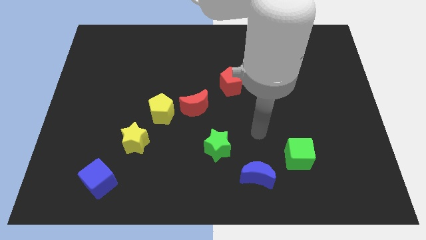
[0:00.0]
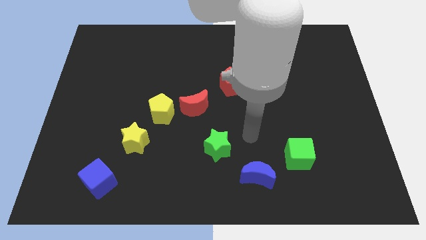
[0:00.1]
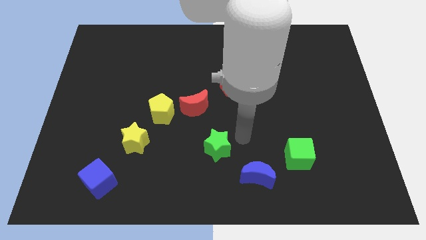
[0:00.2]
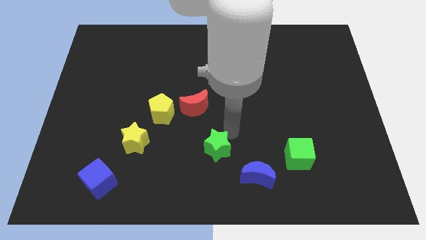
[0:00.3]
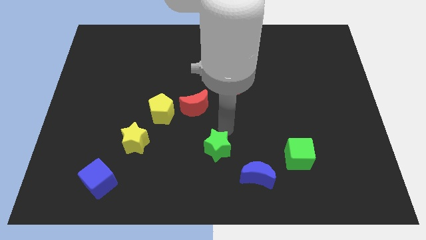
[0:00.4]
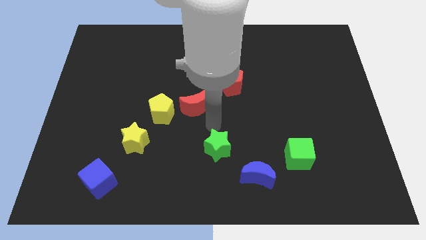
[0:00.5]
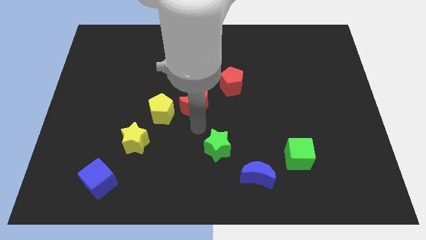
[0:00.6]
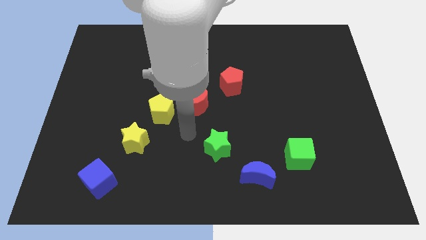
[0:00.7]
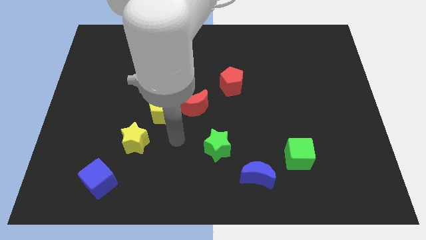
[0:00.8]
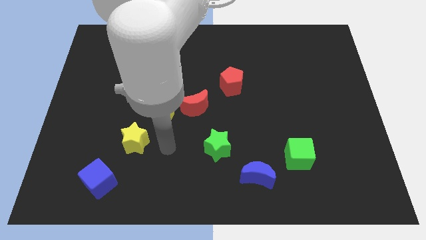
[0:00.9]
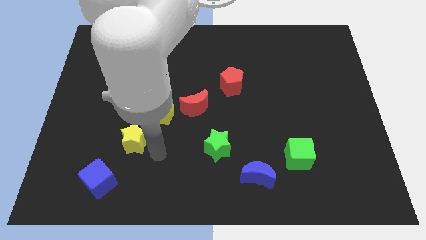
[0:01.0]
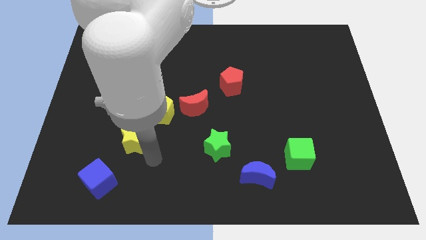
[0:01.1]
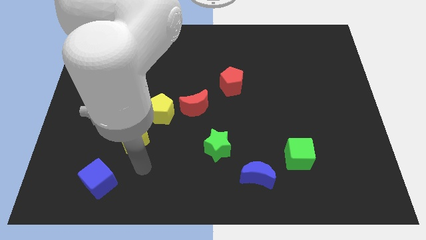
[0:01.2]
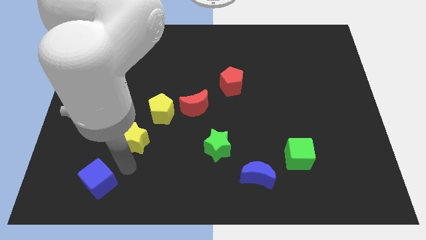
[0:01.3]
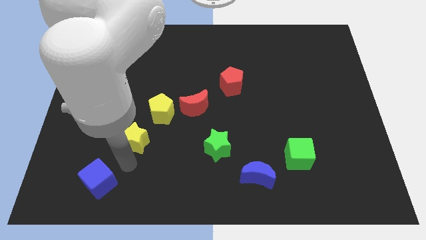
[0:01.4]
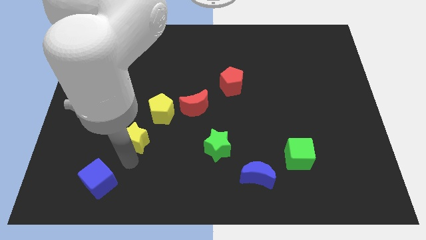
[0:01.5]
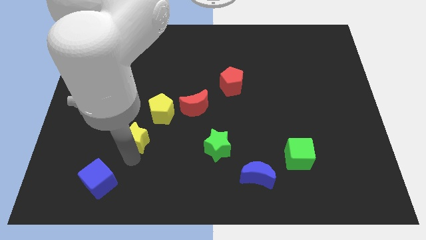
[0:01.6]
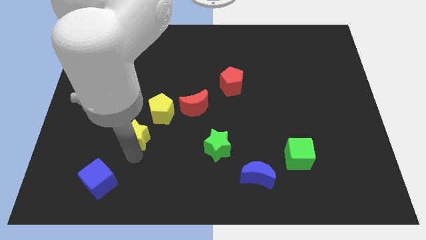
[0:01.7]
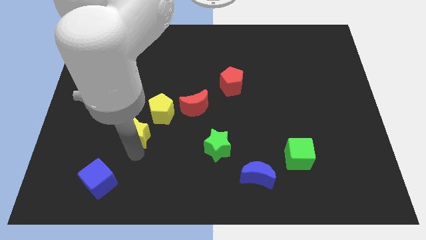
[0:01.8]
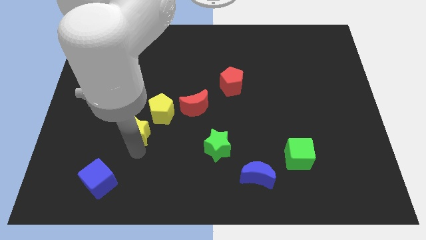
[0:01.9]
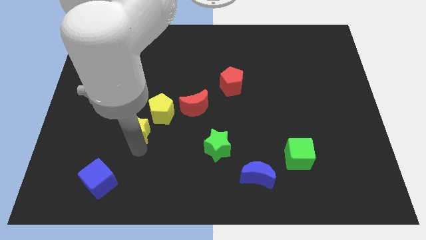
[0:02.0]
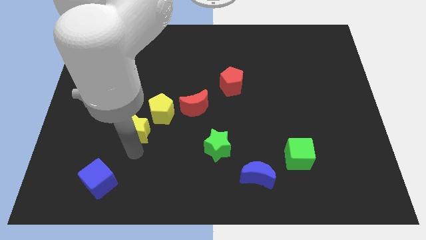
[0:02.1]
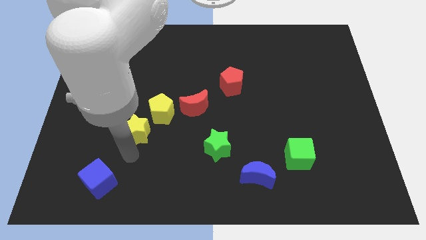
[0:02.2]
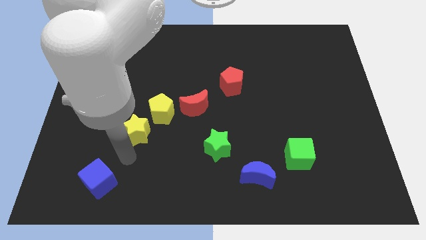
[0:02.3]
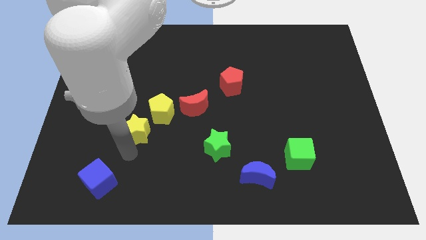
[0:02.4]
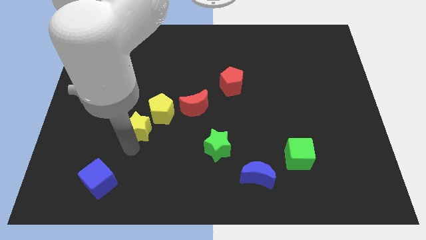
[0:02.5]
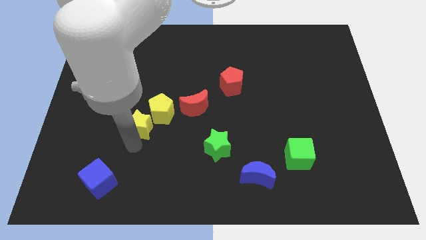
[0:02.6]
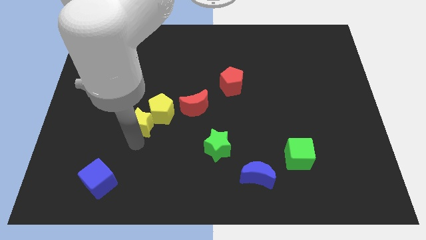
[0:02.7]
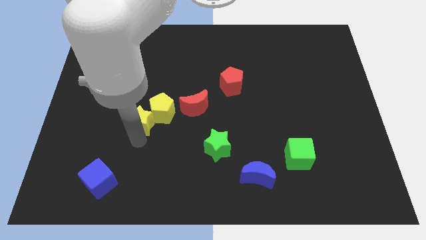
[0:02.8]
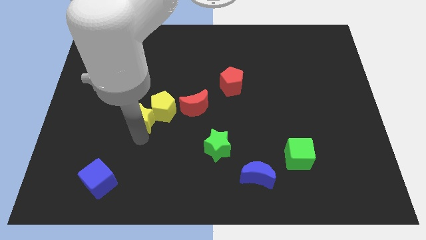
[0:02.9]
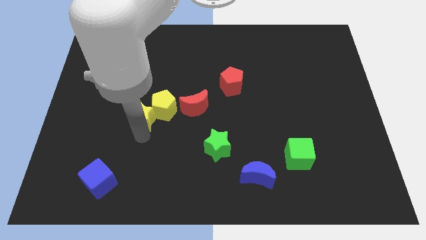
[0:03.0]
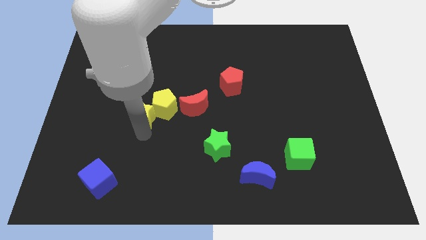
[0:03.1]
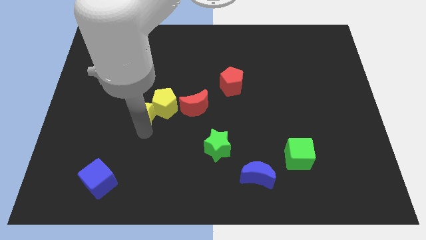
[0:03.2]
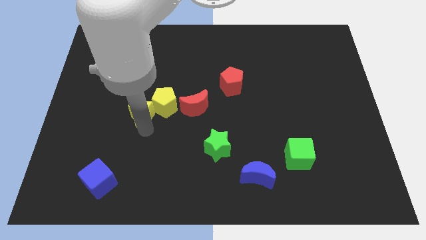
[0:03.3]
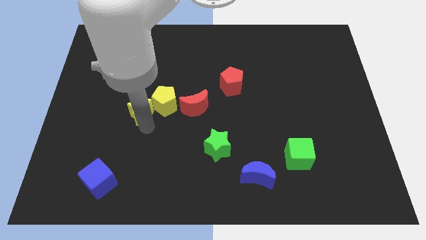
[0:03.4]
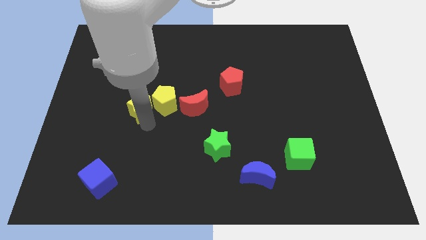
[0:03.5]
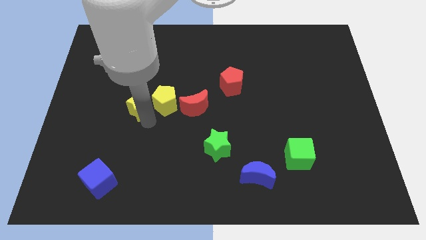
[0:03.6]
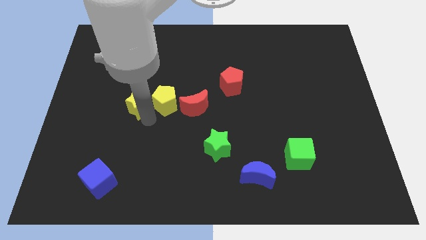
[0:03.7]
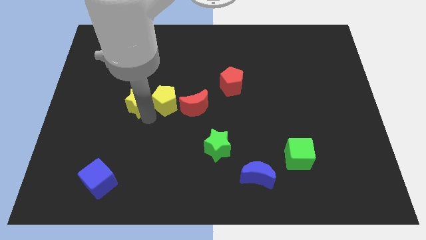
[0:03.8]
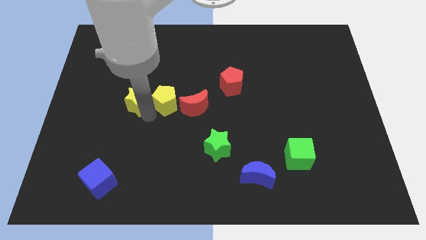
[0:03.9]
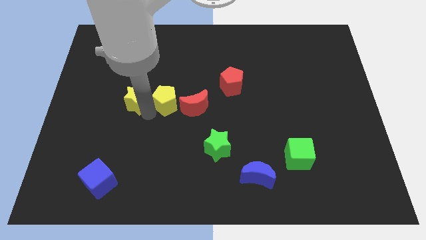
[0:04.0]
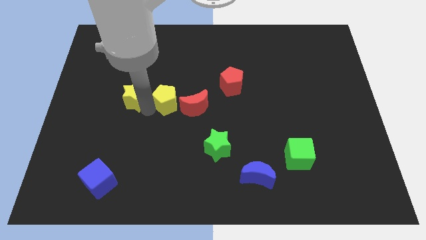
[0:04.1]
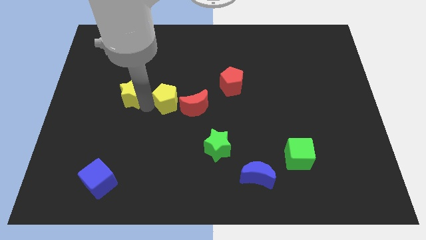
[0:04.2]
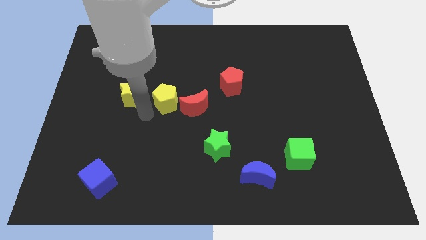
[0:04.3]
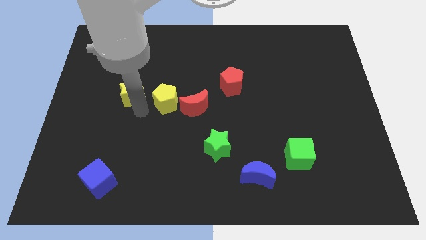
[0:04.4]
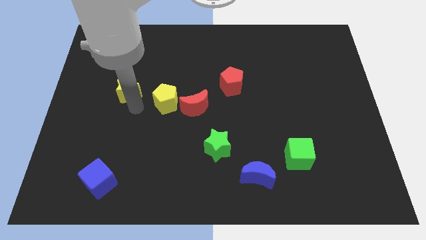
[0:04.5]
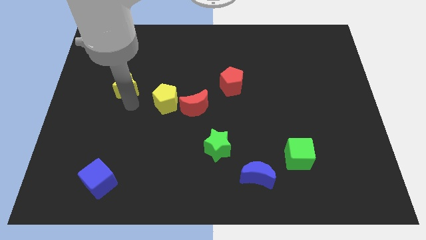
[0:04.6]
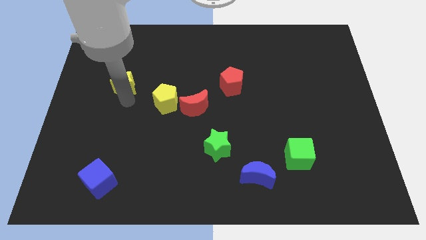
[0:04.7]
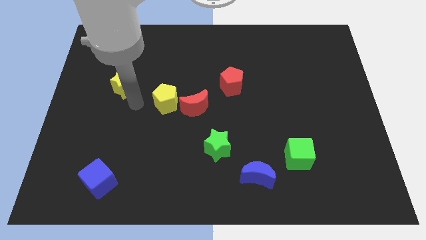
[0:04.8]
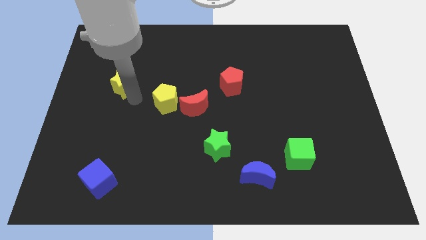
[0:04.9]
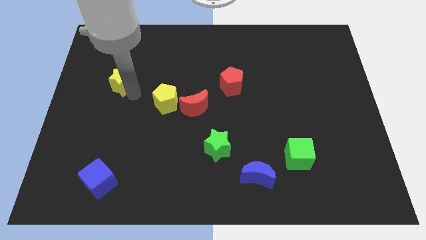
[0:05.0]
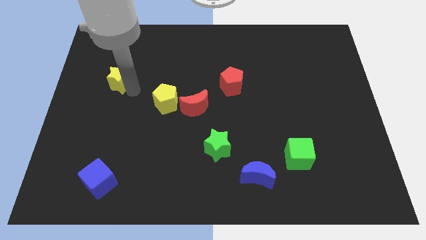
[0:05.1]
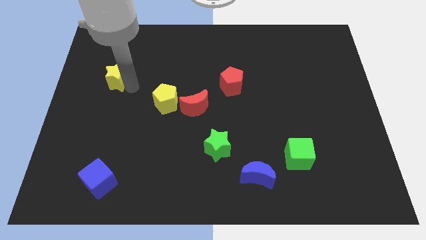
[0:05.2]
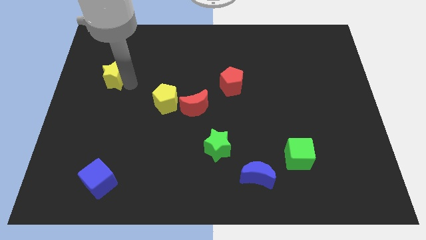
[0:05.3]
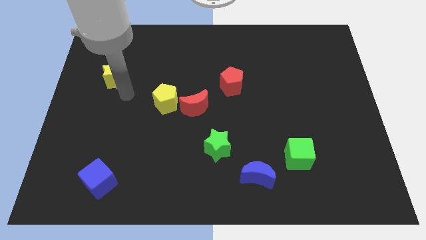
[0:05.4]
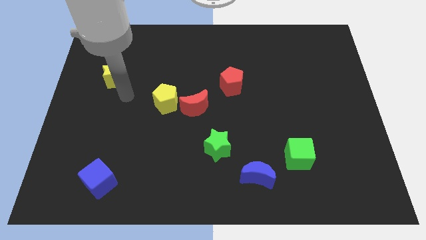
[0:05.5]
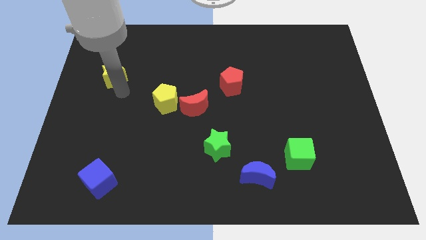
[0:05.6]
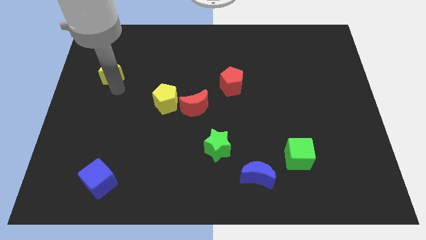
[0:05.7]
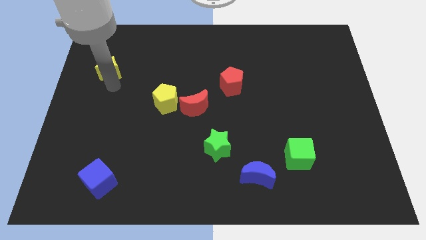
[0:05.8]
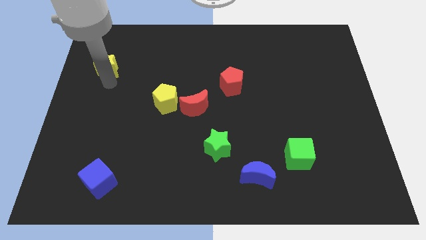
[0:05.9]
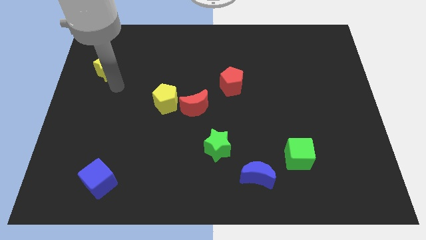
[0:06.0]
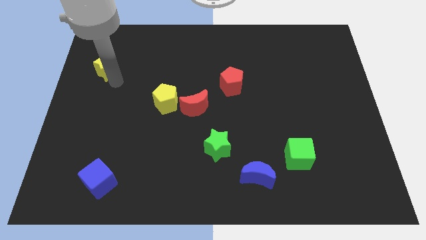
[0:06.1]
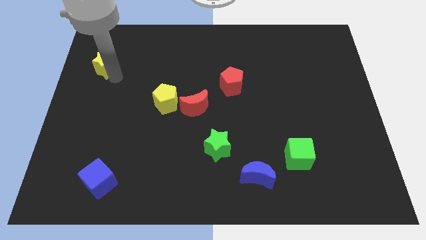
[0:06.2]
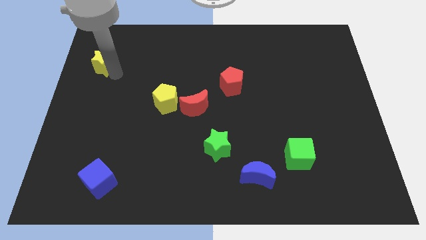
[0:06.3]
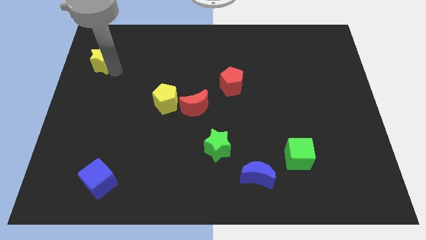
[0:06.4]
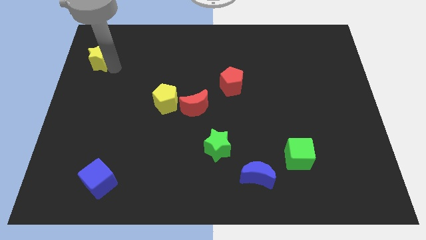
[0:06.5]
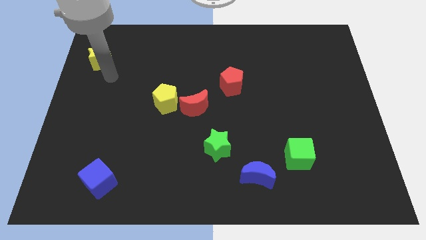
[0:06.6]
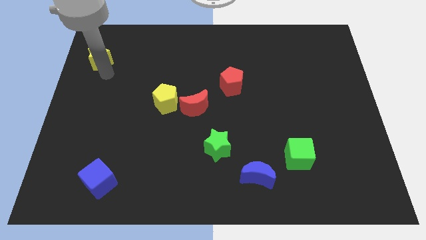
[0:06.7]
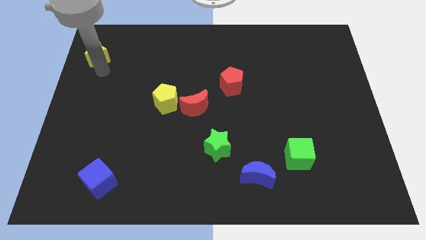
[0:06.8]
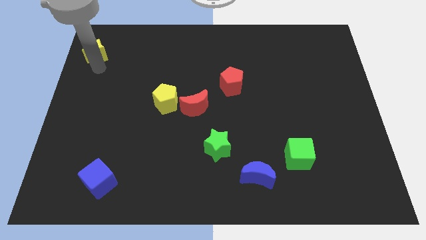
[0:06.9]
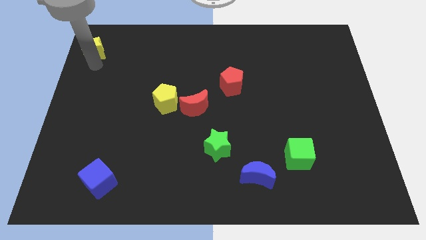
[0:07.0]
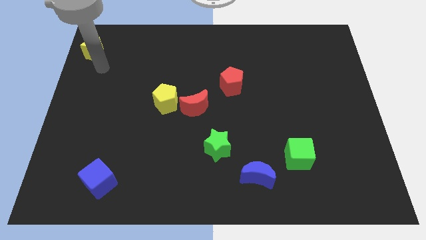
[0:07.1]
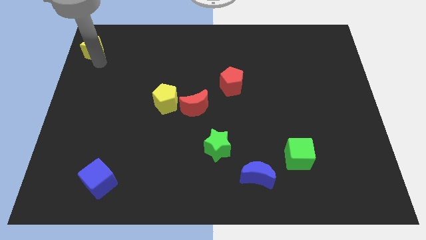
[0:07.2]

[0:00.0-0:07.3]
slide the yellow star to the upper left corner
